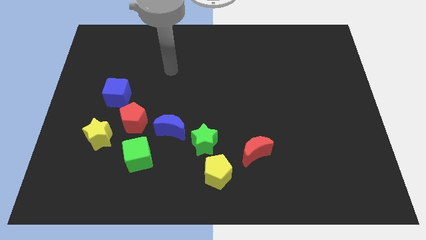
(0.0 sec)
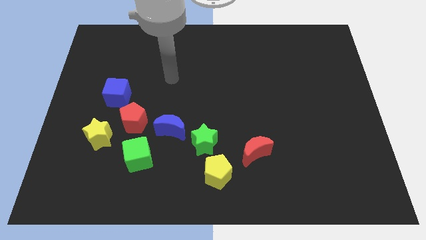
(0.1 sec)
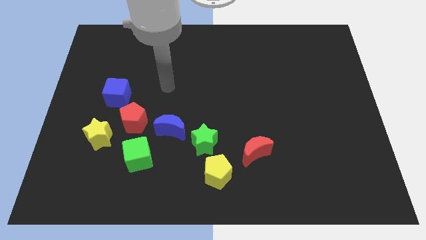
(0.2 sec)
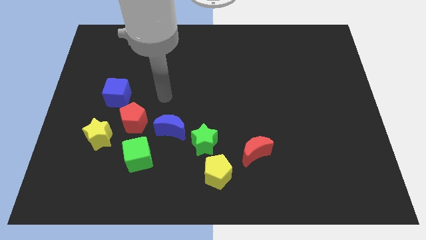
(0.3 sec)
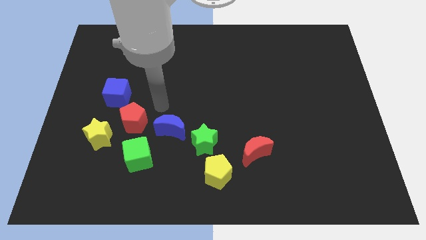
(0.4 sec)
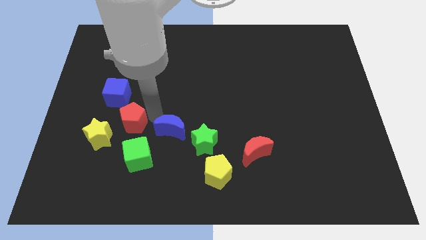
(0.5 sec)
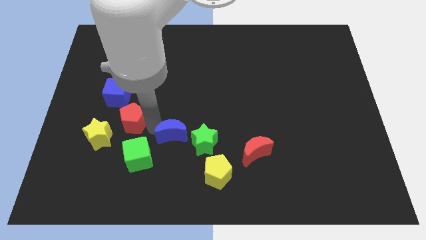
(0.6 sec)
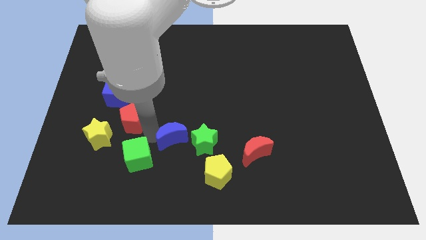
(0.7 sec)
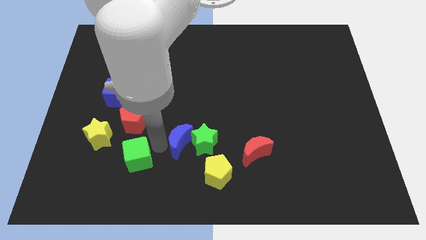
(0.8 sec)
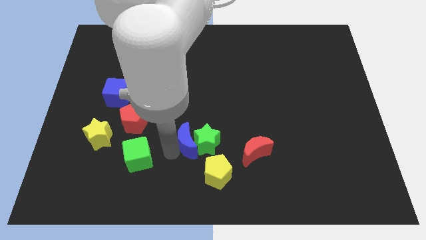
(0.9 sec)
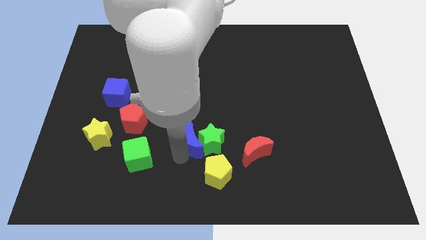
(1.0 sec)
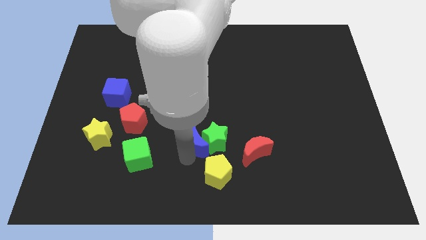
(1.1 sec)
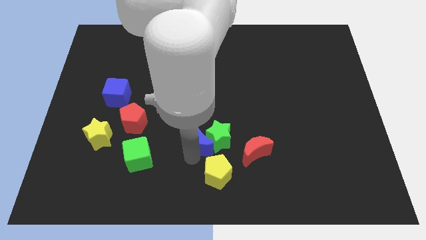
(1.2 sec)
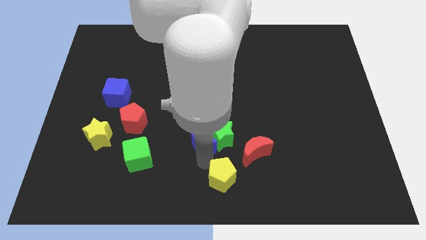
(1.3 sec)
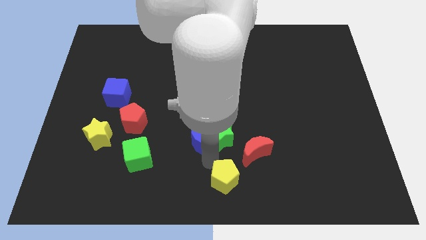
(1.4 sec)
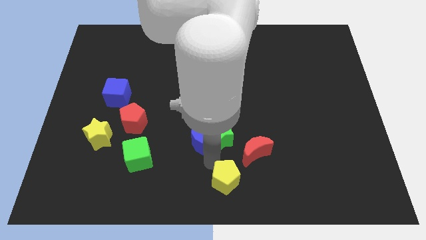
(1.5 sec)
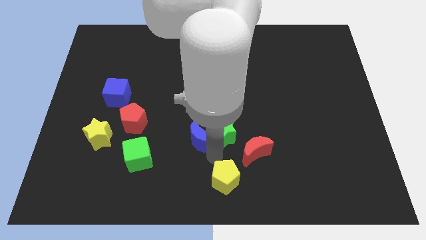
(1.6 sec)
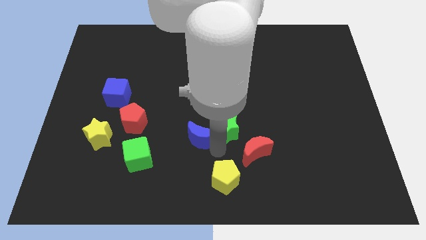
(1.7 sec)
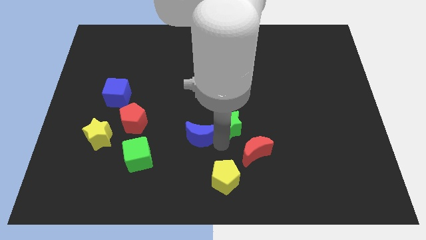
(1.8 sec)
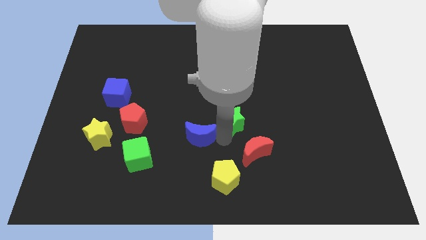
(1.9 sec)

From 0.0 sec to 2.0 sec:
pull the green star apart from the yellow pentagon and blue moon

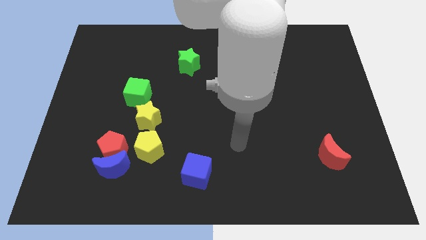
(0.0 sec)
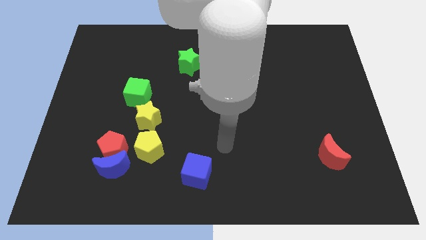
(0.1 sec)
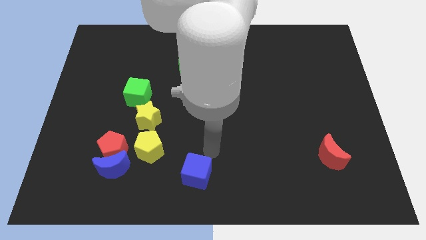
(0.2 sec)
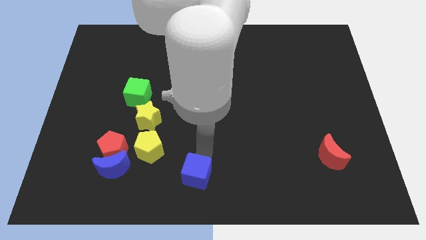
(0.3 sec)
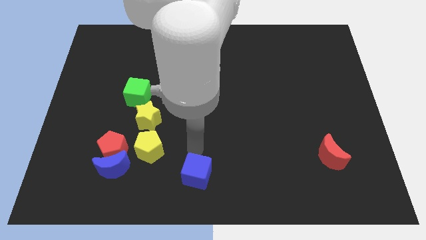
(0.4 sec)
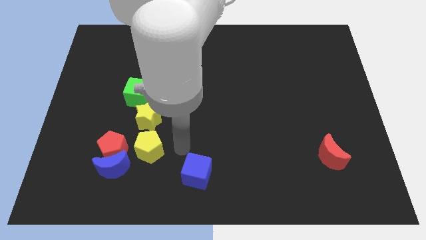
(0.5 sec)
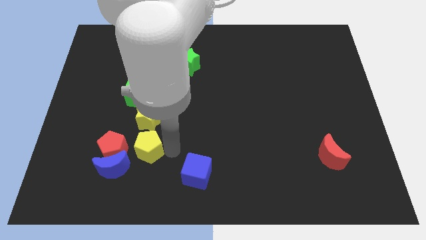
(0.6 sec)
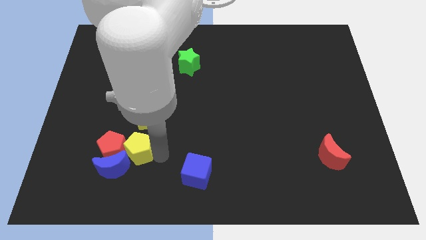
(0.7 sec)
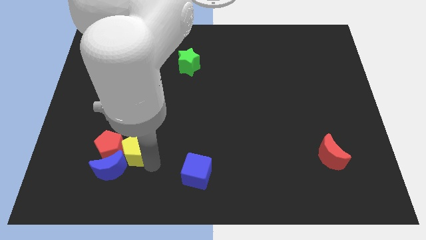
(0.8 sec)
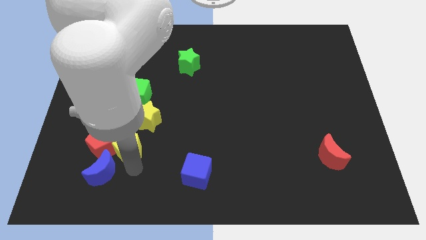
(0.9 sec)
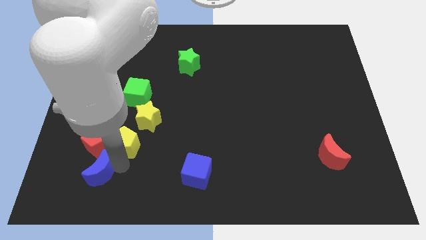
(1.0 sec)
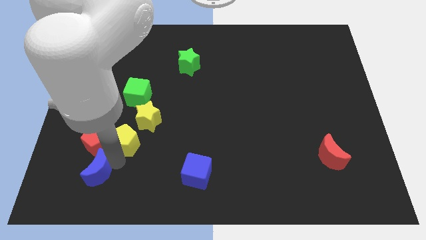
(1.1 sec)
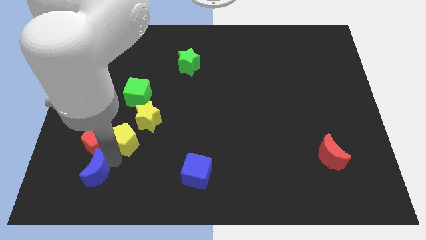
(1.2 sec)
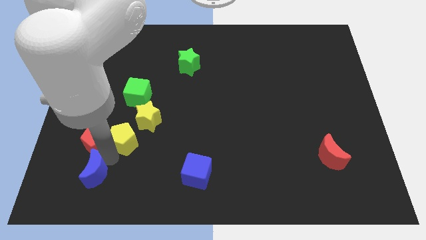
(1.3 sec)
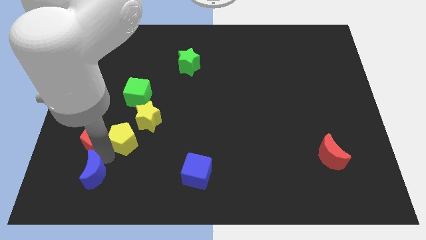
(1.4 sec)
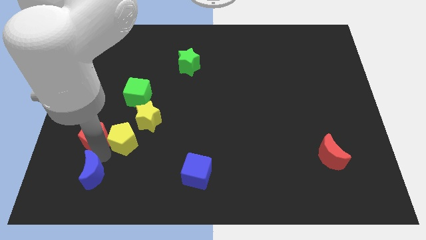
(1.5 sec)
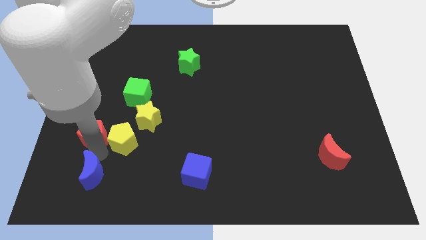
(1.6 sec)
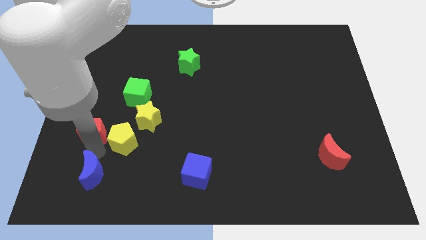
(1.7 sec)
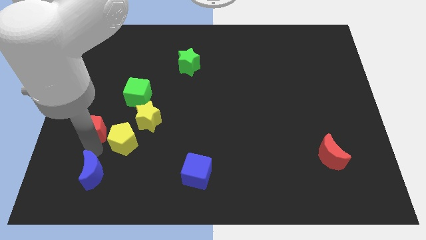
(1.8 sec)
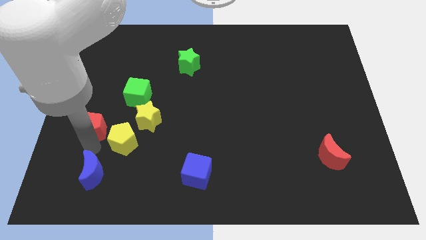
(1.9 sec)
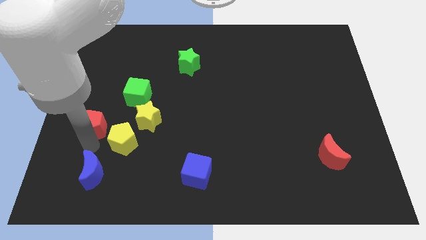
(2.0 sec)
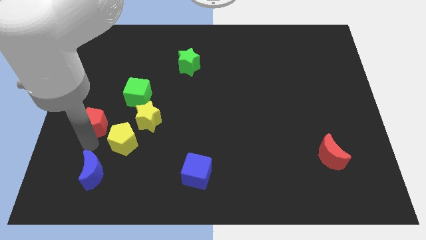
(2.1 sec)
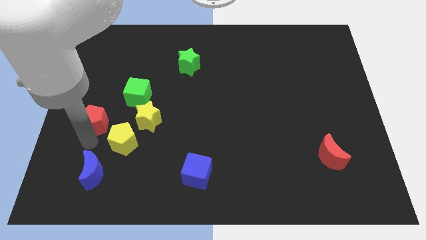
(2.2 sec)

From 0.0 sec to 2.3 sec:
pull the red pentagon apart from the blue moon and yellow pentagon

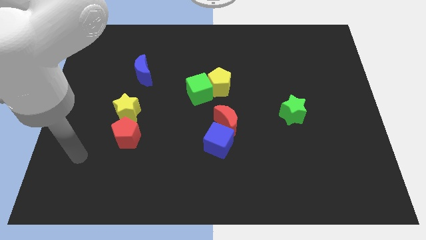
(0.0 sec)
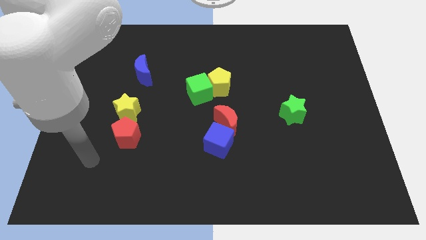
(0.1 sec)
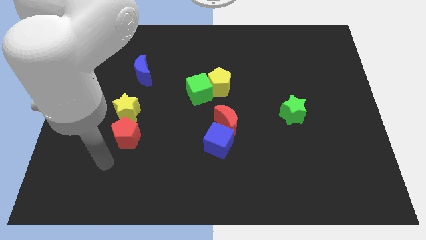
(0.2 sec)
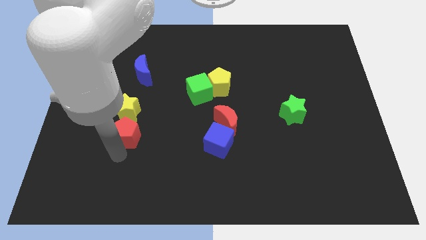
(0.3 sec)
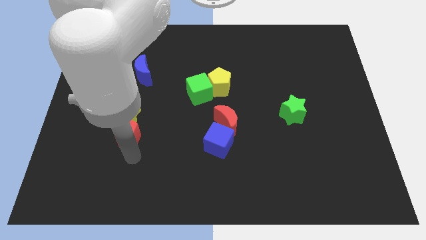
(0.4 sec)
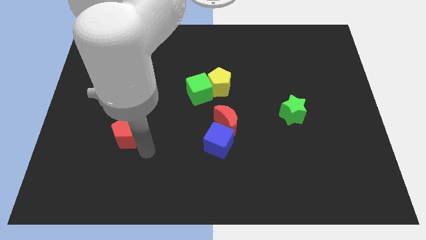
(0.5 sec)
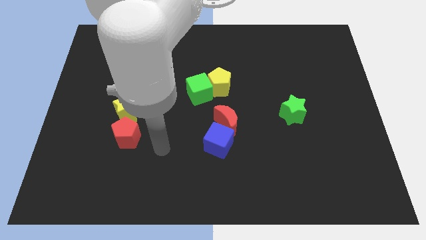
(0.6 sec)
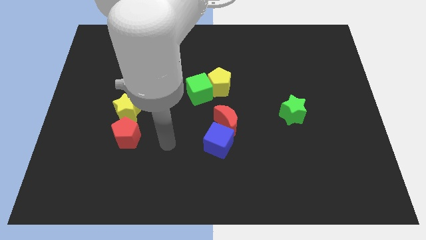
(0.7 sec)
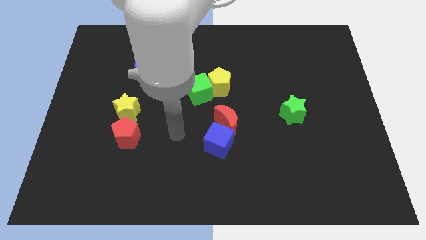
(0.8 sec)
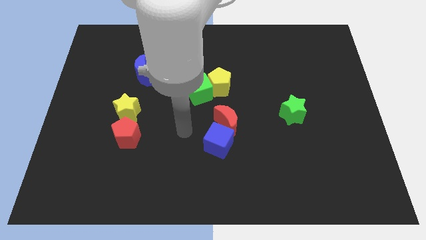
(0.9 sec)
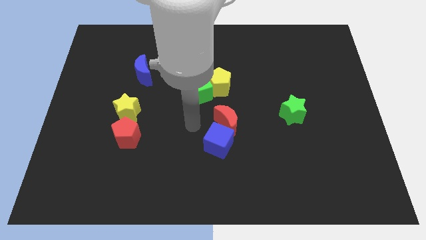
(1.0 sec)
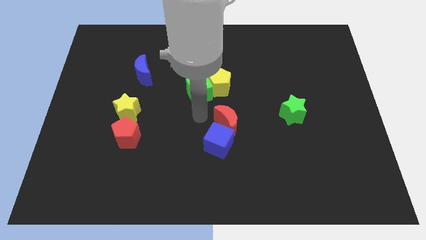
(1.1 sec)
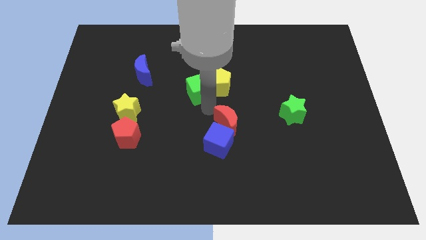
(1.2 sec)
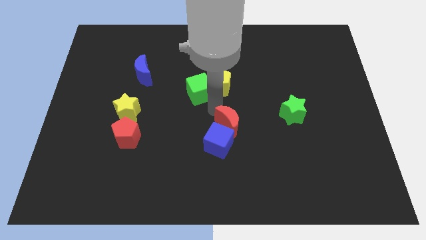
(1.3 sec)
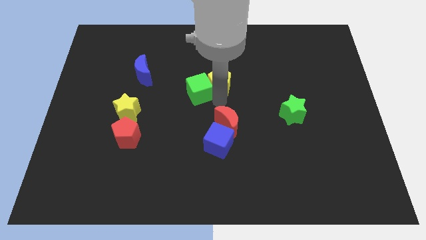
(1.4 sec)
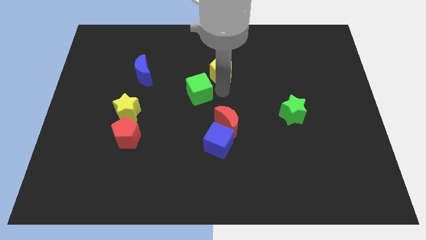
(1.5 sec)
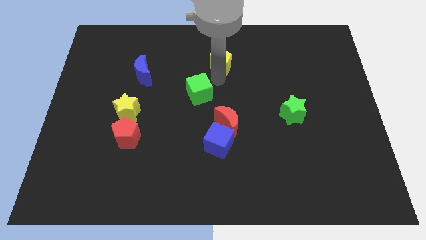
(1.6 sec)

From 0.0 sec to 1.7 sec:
pull the green cube apart from the yellow pentagon

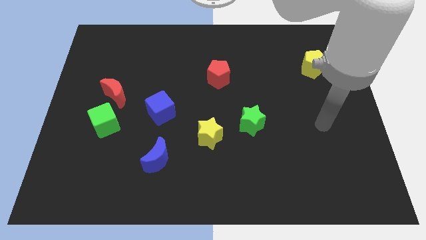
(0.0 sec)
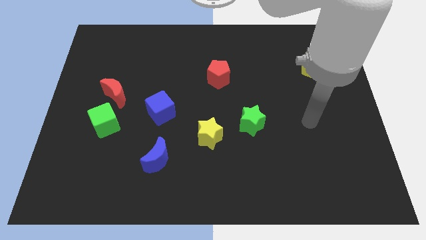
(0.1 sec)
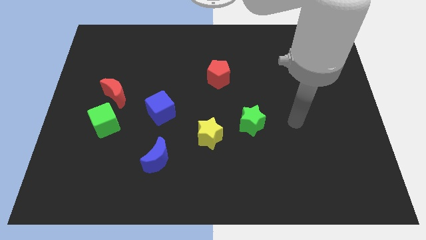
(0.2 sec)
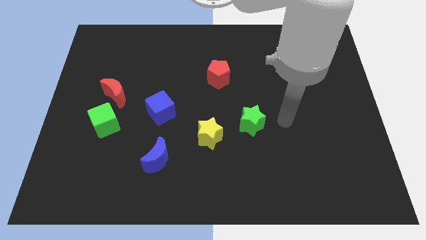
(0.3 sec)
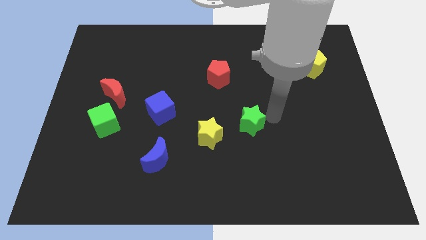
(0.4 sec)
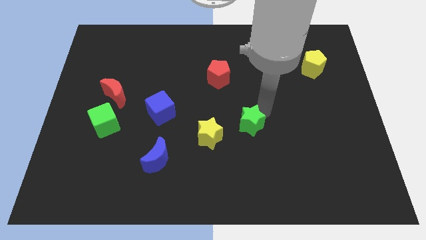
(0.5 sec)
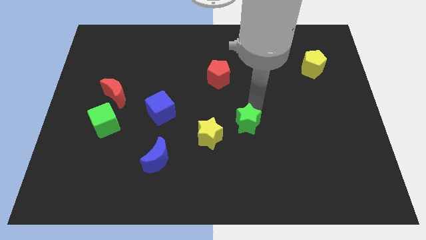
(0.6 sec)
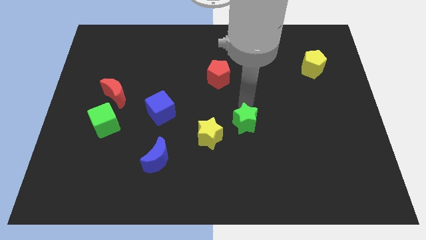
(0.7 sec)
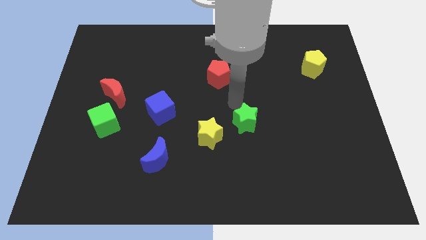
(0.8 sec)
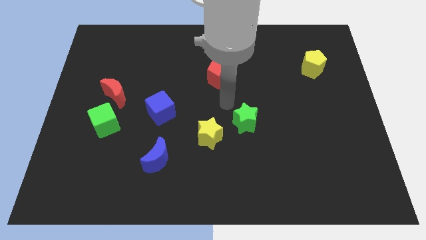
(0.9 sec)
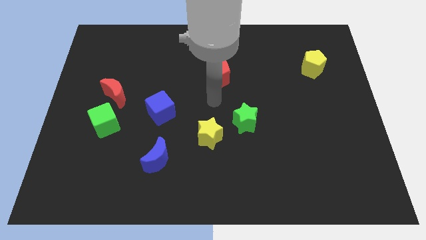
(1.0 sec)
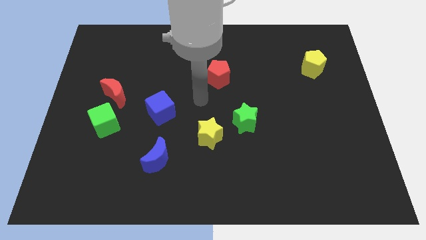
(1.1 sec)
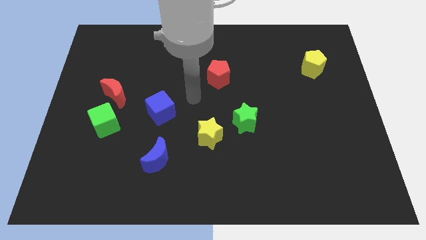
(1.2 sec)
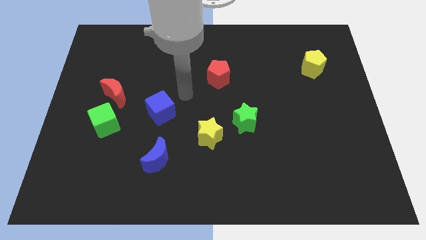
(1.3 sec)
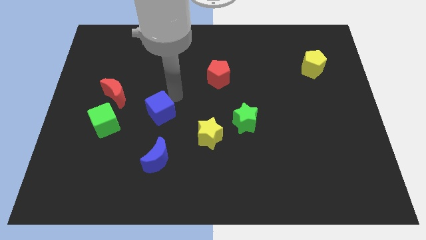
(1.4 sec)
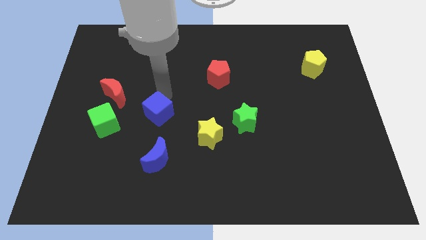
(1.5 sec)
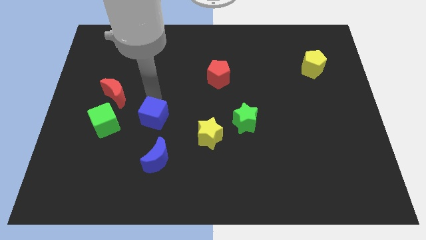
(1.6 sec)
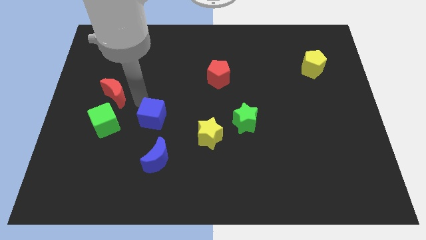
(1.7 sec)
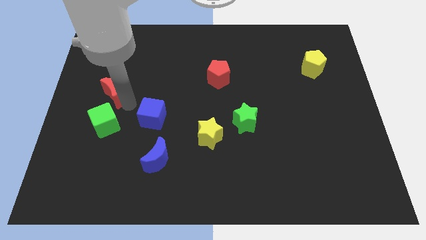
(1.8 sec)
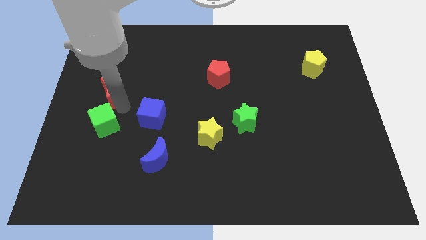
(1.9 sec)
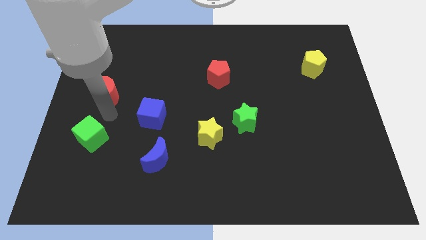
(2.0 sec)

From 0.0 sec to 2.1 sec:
separate the red moon from the green cube

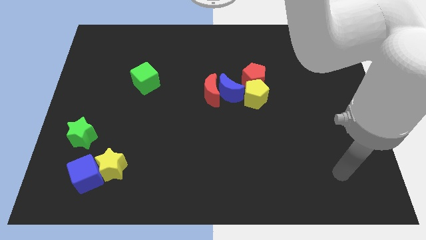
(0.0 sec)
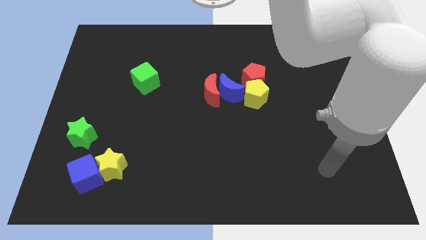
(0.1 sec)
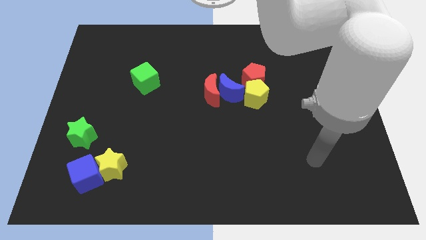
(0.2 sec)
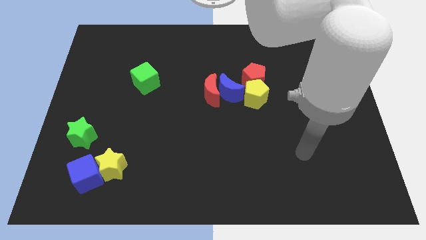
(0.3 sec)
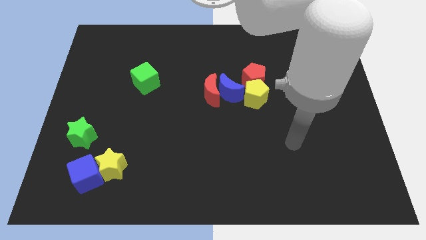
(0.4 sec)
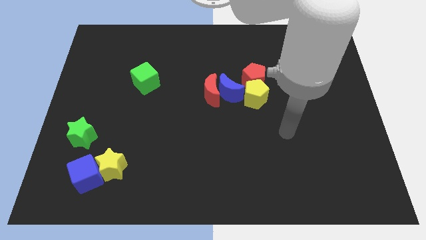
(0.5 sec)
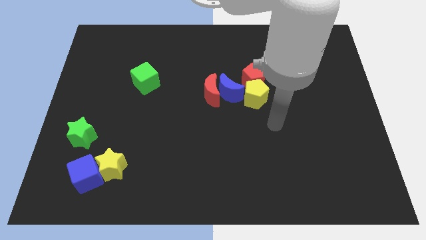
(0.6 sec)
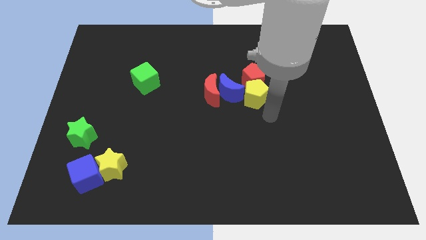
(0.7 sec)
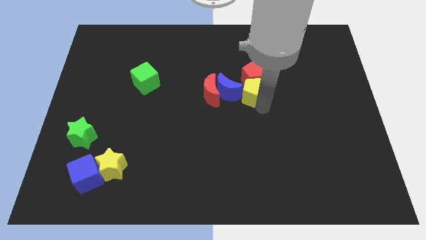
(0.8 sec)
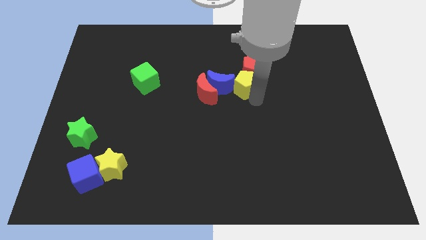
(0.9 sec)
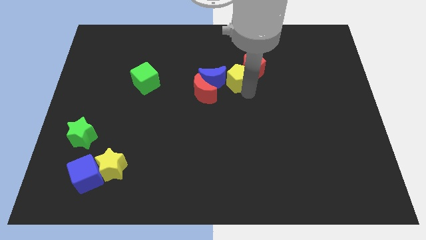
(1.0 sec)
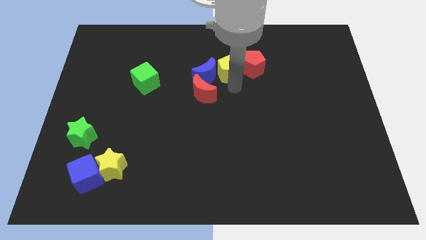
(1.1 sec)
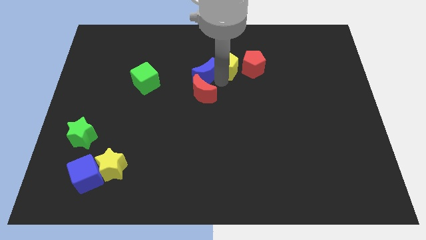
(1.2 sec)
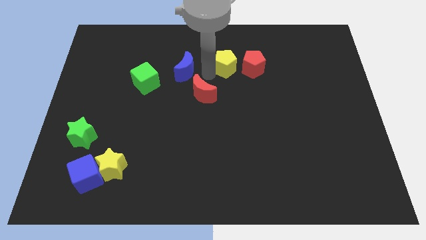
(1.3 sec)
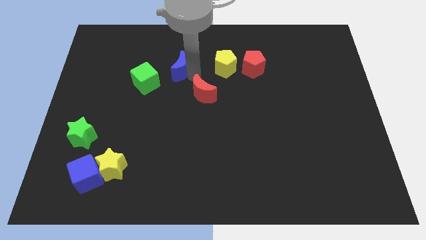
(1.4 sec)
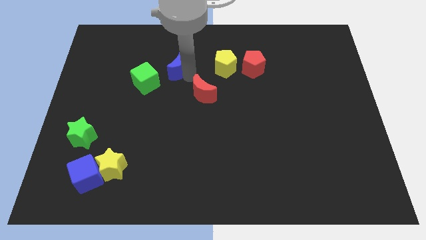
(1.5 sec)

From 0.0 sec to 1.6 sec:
move the red moon away from the blue moon
